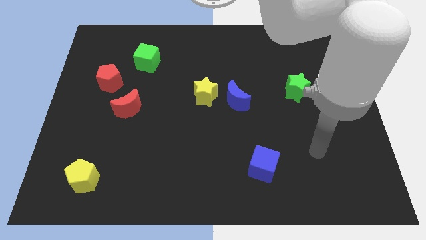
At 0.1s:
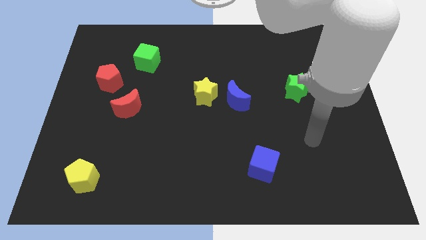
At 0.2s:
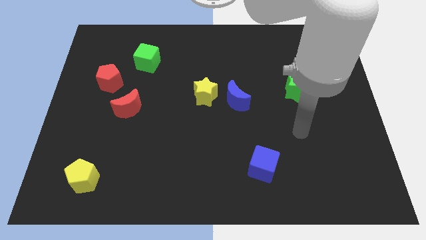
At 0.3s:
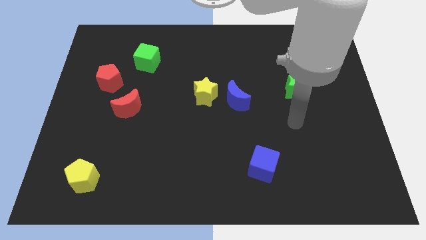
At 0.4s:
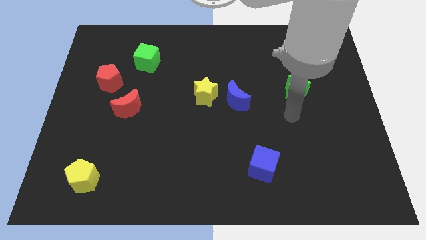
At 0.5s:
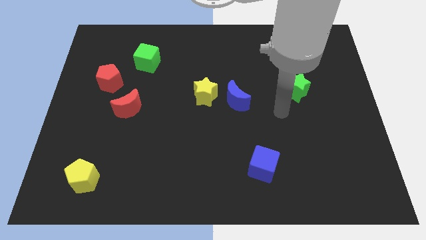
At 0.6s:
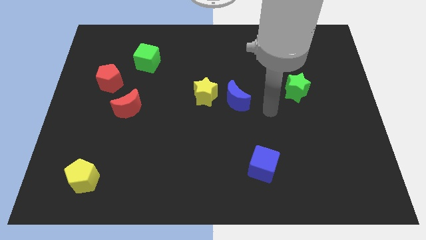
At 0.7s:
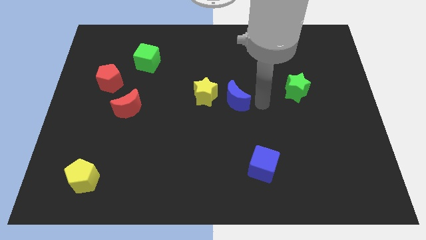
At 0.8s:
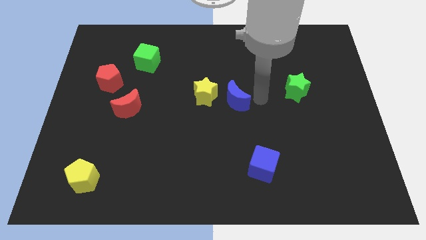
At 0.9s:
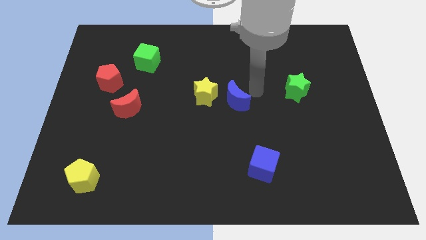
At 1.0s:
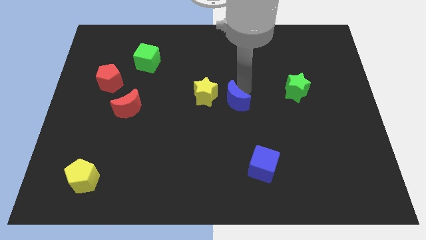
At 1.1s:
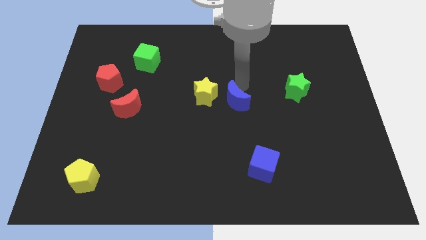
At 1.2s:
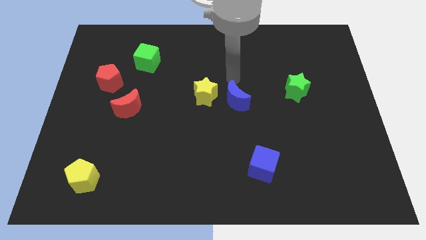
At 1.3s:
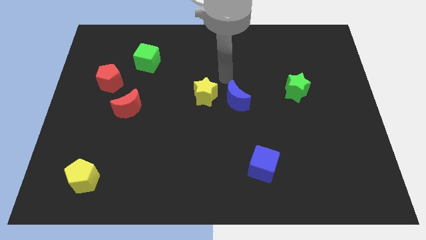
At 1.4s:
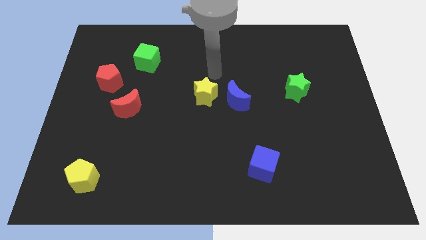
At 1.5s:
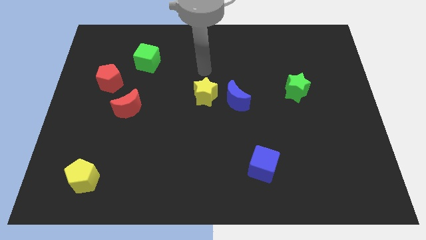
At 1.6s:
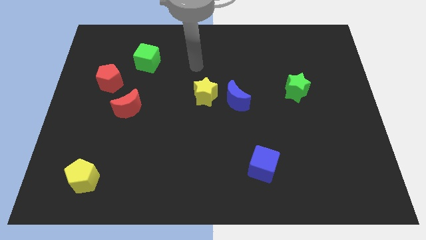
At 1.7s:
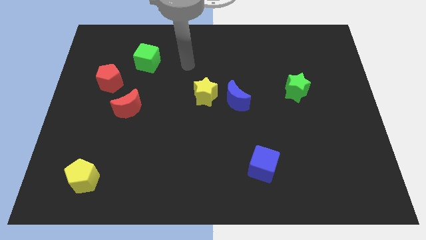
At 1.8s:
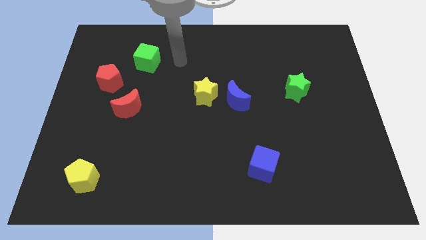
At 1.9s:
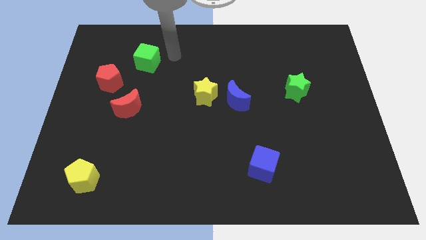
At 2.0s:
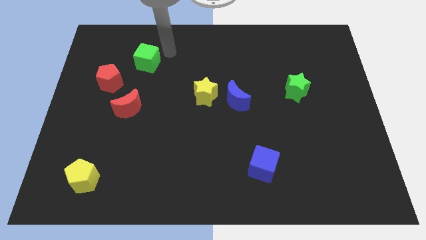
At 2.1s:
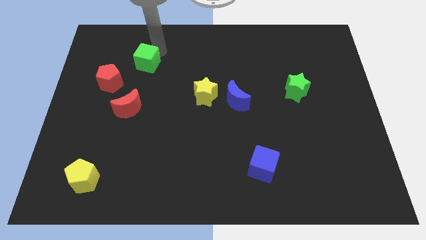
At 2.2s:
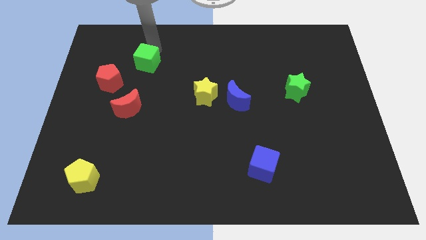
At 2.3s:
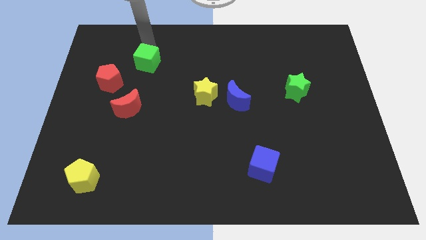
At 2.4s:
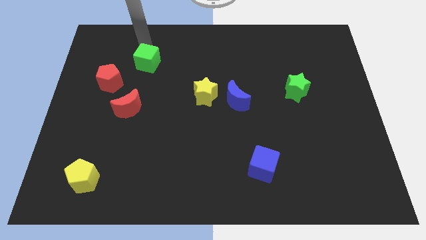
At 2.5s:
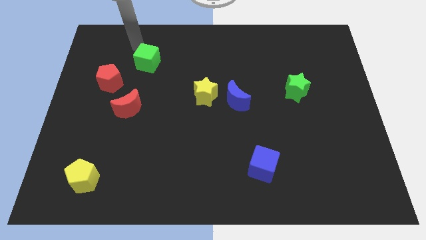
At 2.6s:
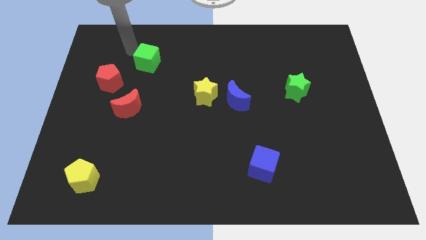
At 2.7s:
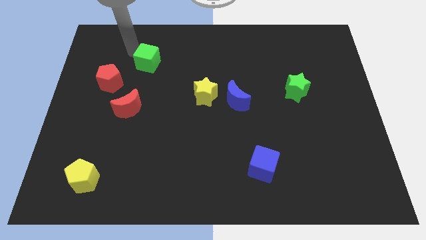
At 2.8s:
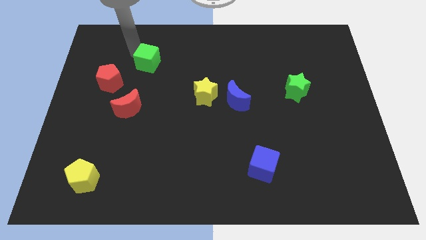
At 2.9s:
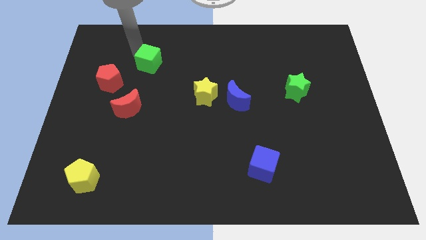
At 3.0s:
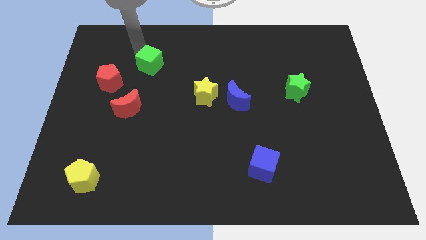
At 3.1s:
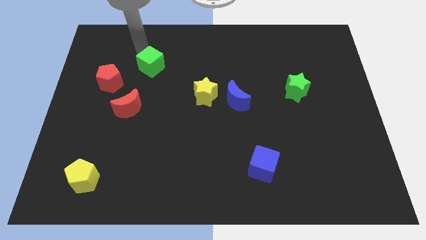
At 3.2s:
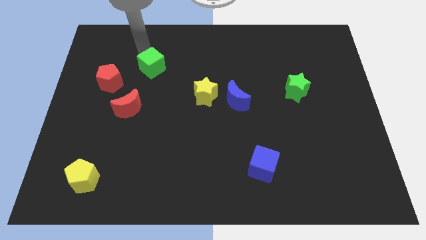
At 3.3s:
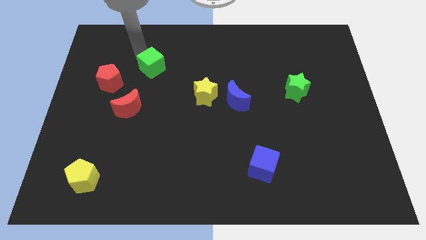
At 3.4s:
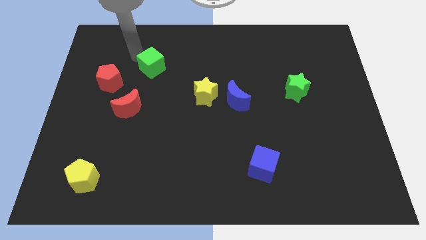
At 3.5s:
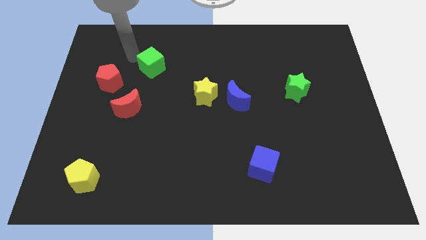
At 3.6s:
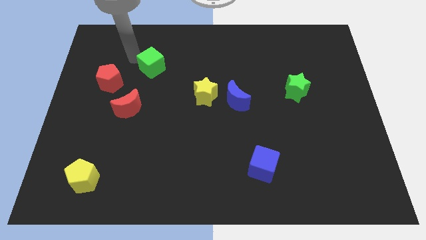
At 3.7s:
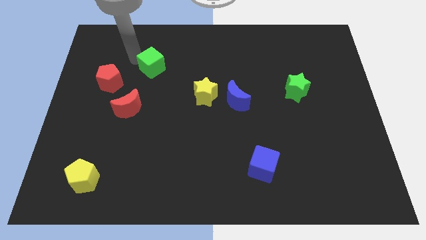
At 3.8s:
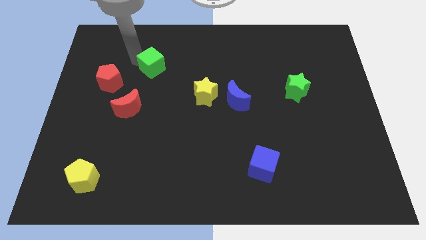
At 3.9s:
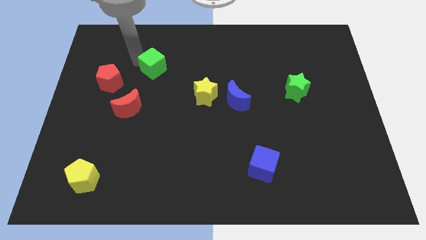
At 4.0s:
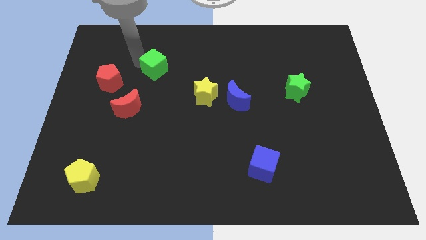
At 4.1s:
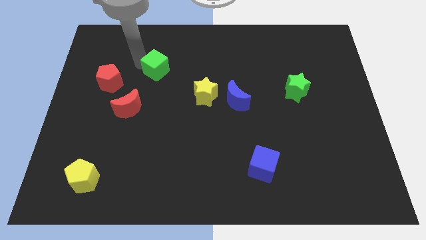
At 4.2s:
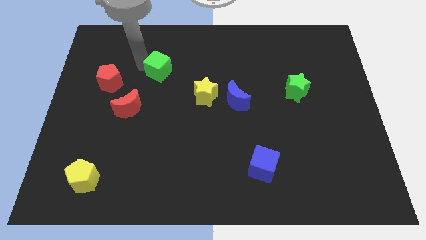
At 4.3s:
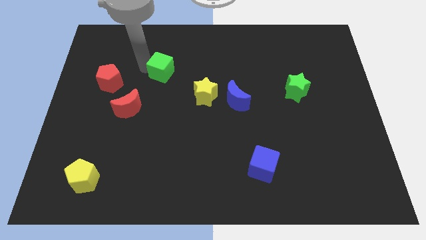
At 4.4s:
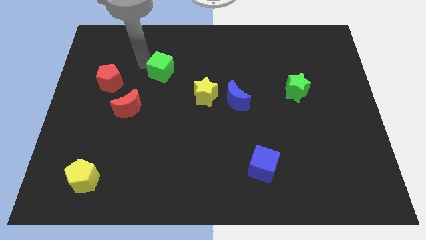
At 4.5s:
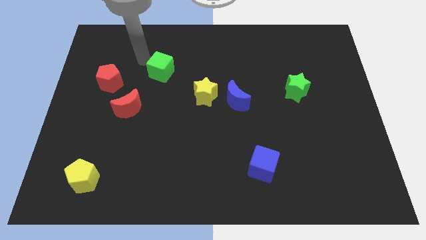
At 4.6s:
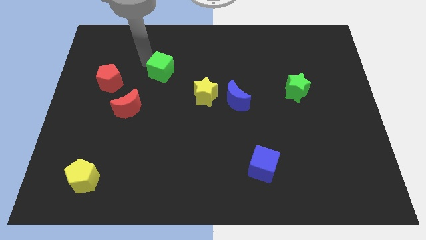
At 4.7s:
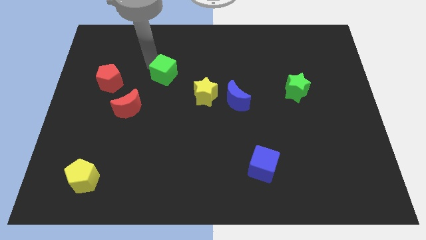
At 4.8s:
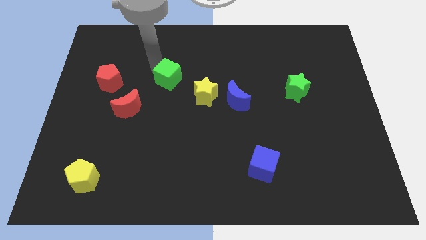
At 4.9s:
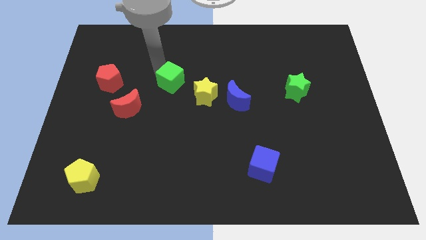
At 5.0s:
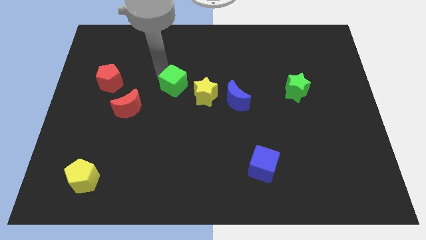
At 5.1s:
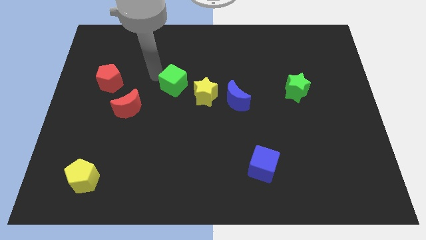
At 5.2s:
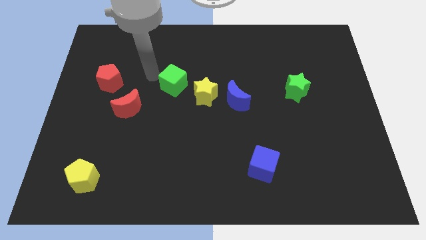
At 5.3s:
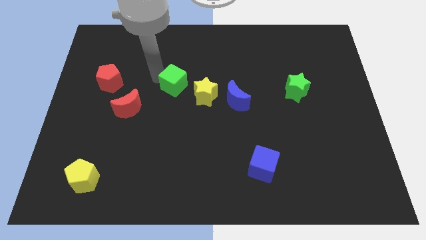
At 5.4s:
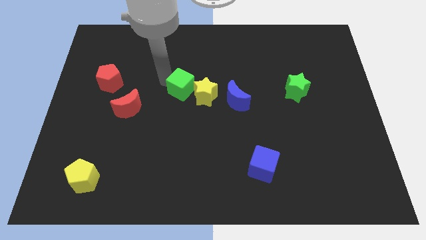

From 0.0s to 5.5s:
slide the green cube towards the yellow star

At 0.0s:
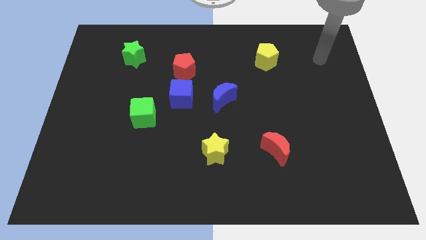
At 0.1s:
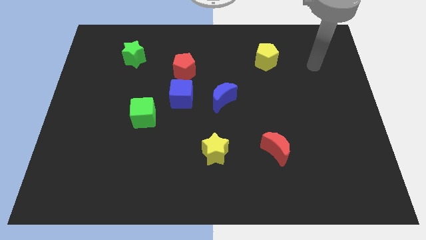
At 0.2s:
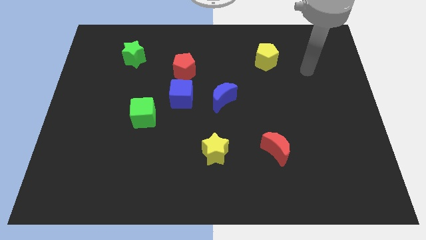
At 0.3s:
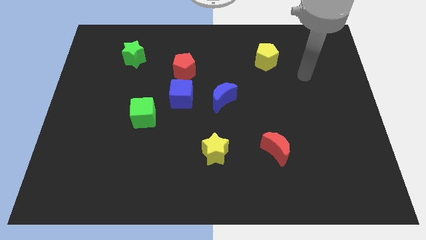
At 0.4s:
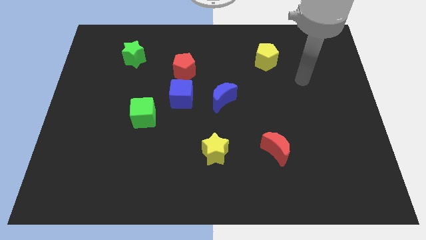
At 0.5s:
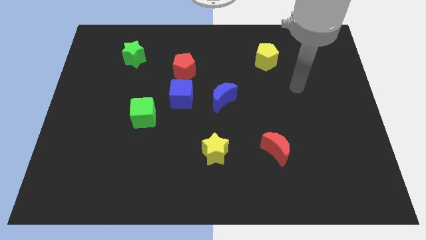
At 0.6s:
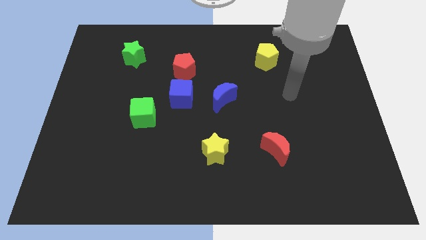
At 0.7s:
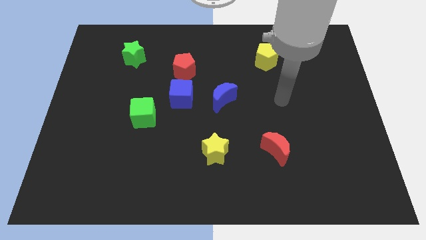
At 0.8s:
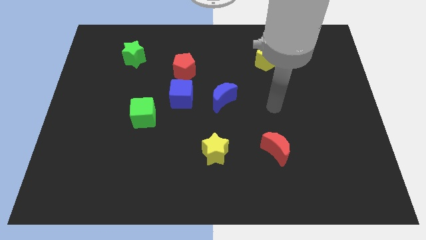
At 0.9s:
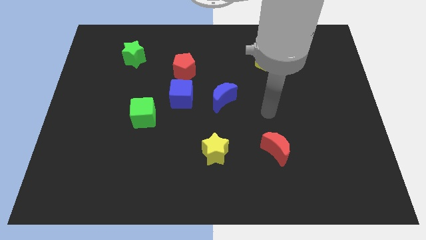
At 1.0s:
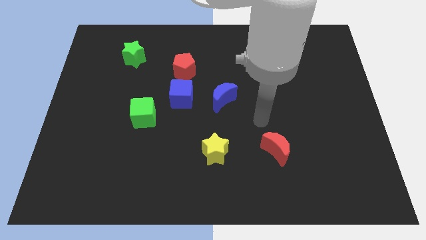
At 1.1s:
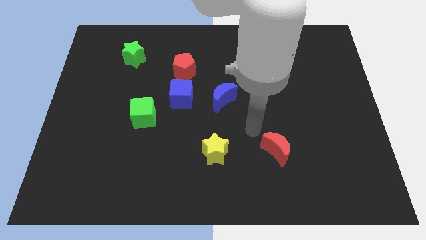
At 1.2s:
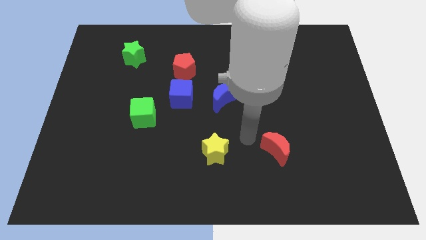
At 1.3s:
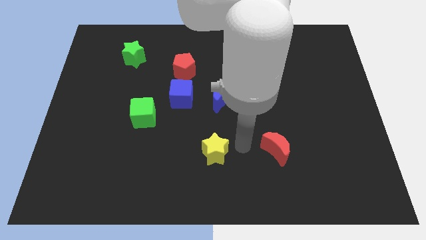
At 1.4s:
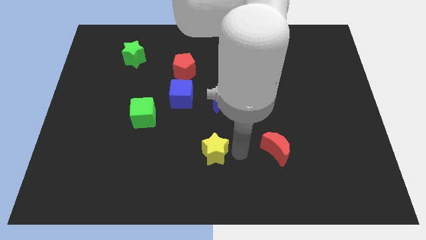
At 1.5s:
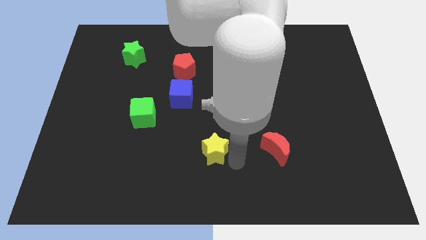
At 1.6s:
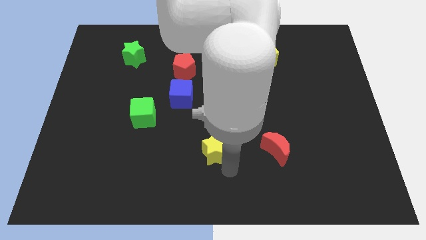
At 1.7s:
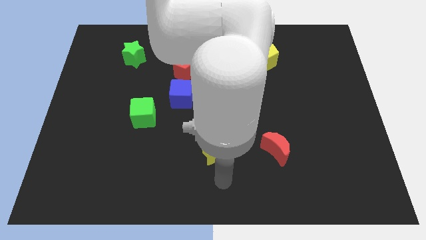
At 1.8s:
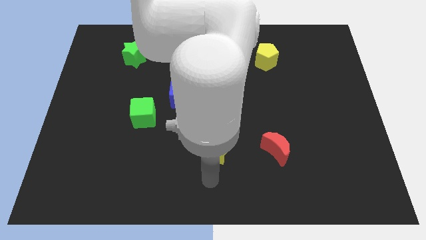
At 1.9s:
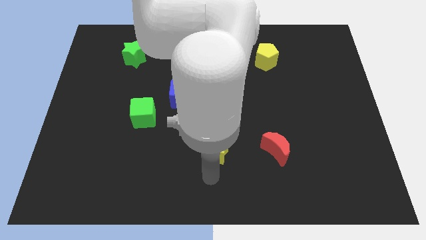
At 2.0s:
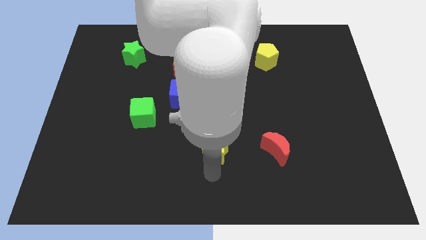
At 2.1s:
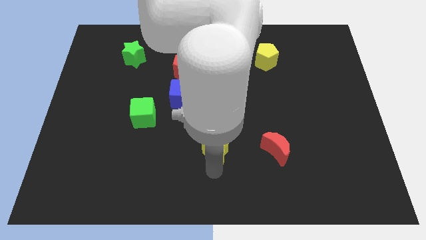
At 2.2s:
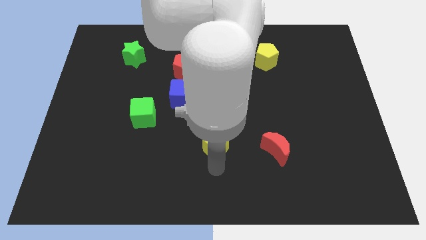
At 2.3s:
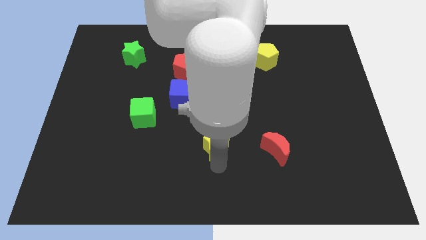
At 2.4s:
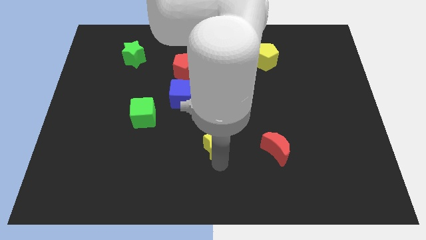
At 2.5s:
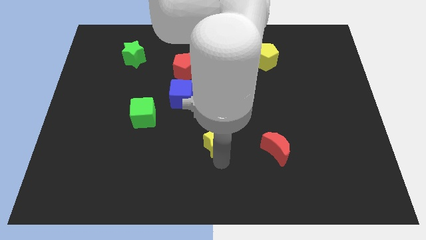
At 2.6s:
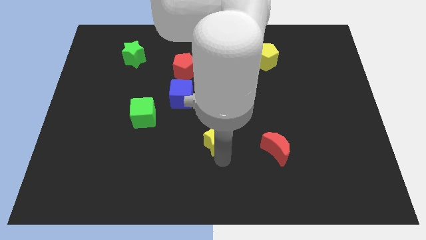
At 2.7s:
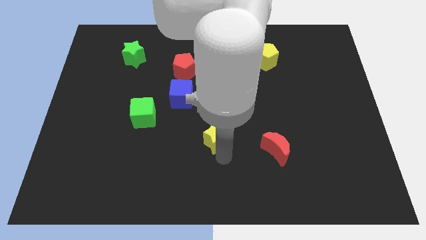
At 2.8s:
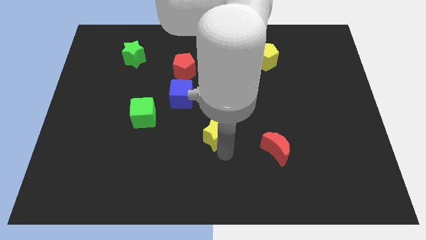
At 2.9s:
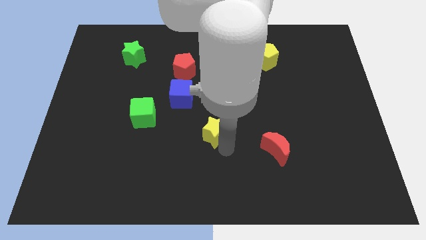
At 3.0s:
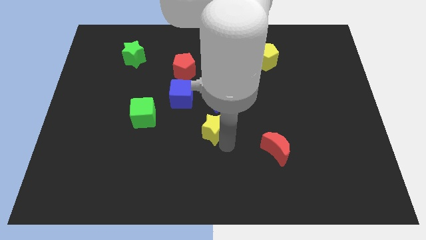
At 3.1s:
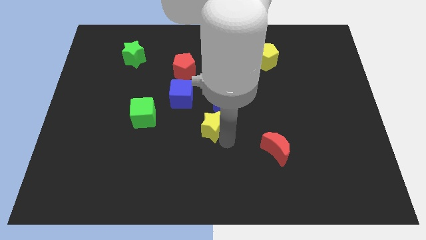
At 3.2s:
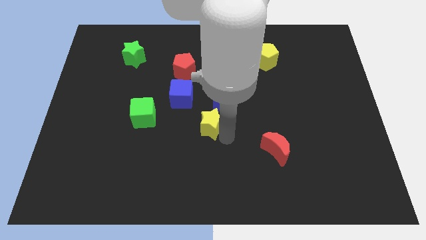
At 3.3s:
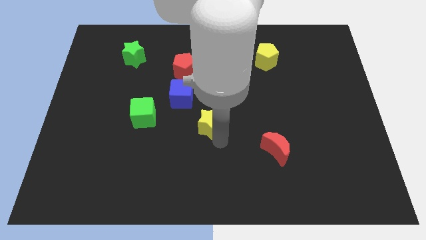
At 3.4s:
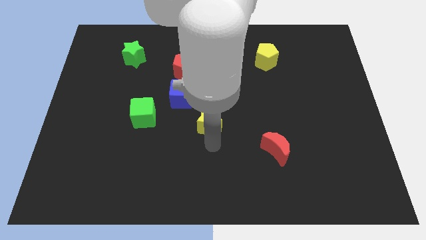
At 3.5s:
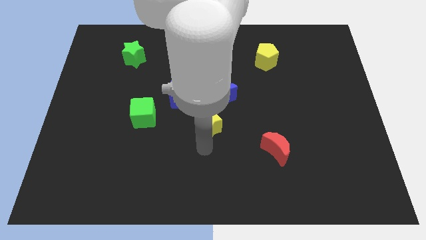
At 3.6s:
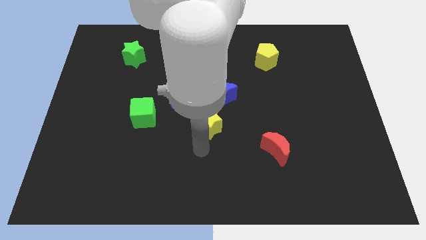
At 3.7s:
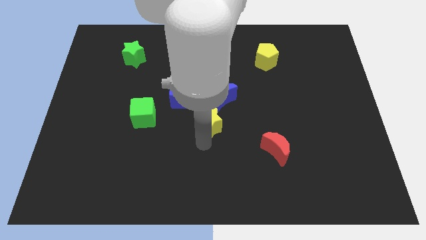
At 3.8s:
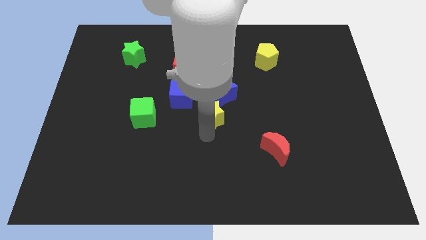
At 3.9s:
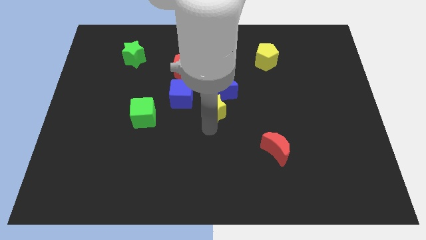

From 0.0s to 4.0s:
slide the yellow star next to the blue moon
